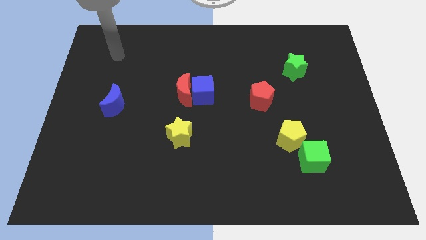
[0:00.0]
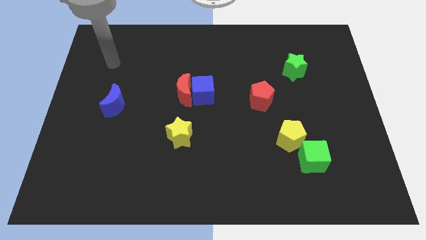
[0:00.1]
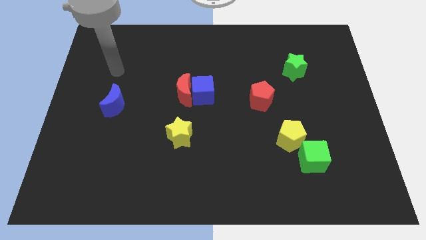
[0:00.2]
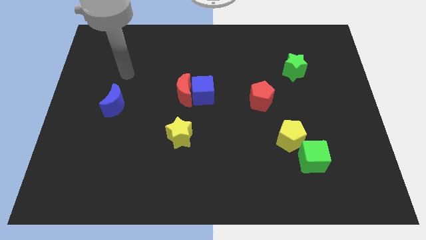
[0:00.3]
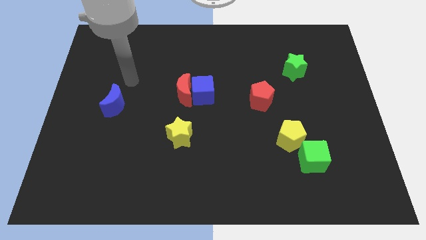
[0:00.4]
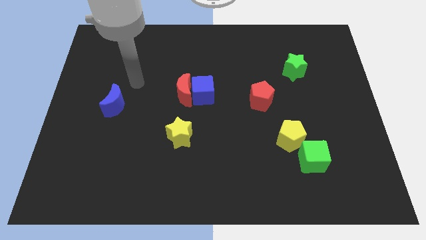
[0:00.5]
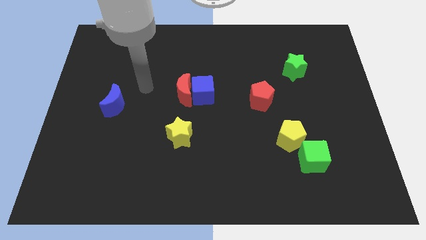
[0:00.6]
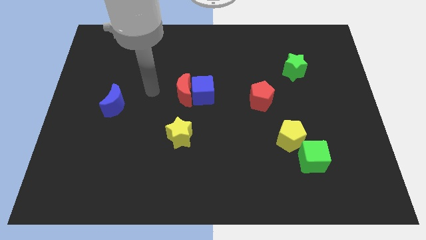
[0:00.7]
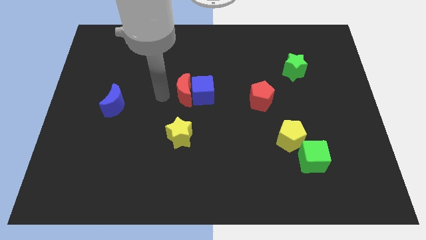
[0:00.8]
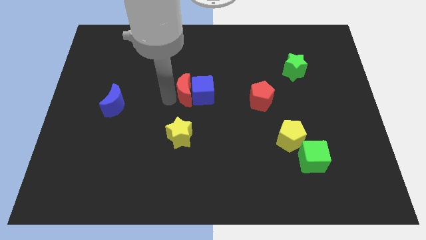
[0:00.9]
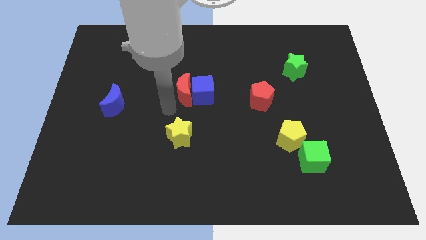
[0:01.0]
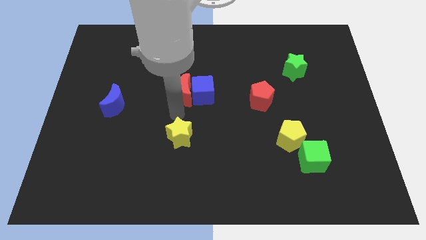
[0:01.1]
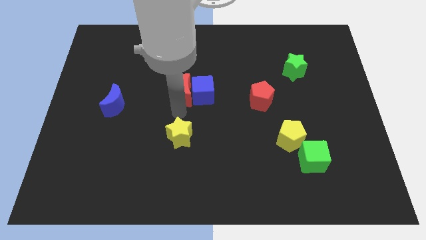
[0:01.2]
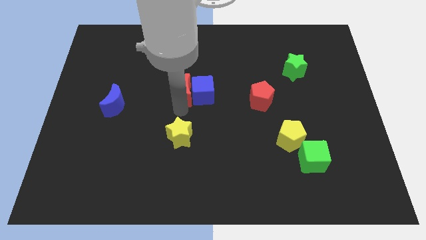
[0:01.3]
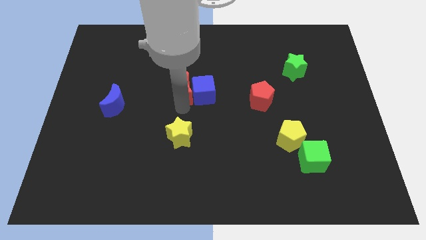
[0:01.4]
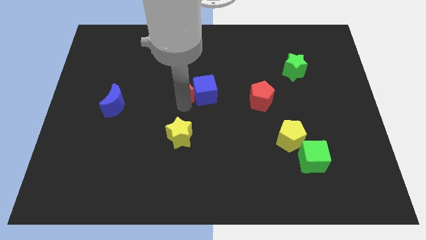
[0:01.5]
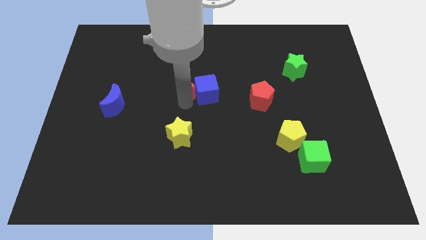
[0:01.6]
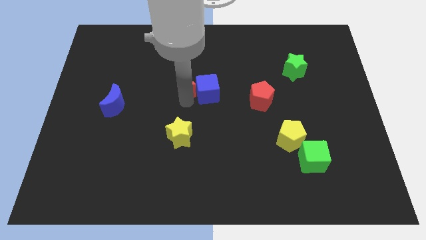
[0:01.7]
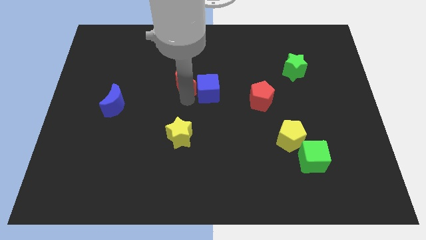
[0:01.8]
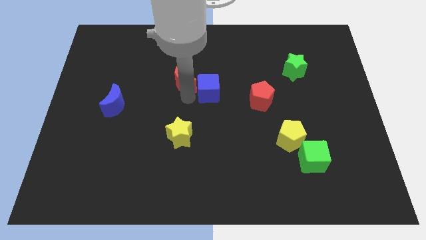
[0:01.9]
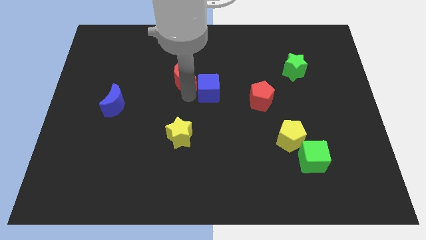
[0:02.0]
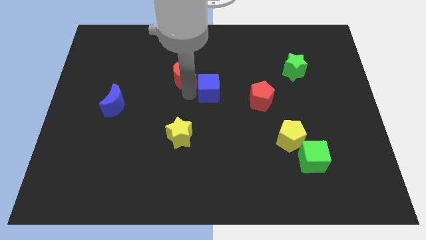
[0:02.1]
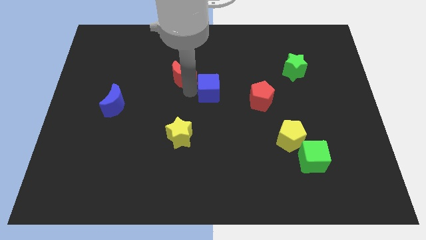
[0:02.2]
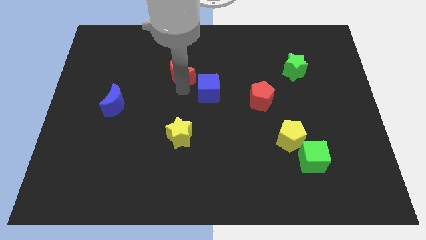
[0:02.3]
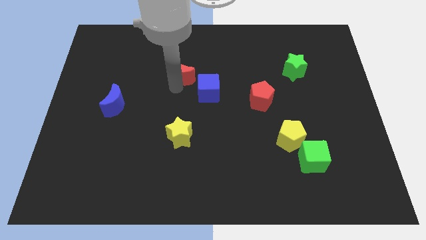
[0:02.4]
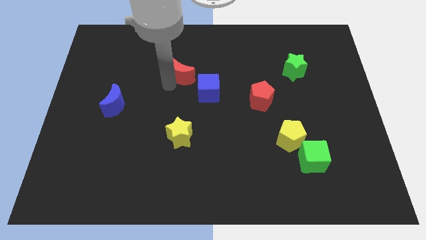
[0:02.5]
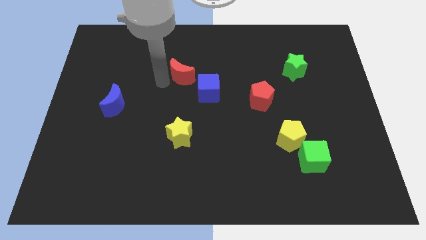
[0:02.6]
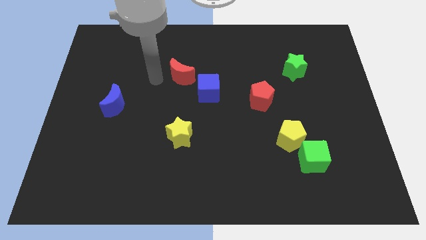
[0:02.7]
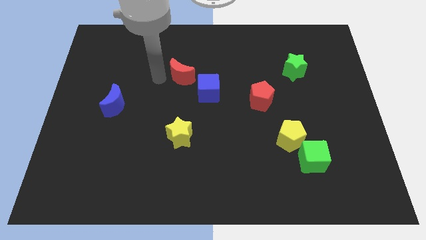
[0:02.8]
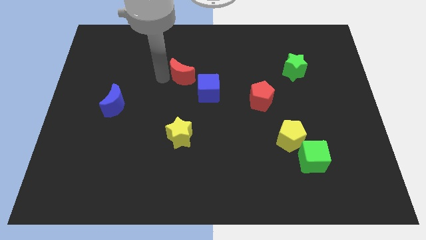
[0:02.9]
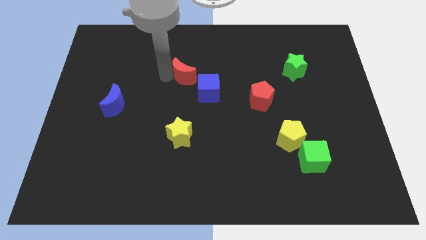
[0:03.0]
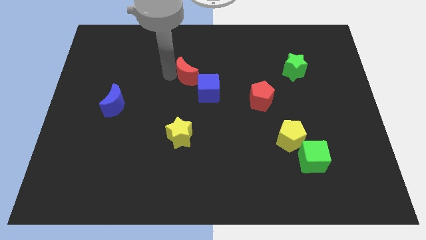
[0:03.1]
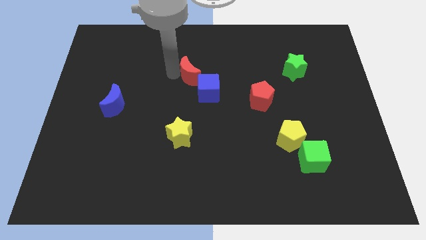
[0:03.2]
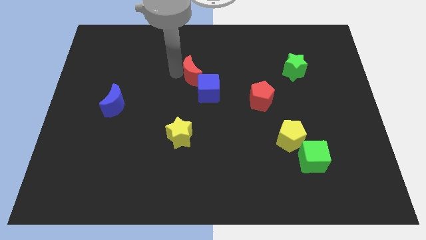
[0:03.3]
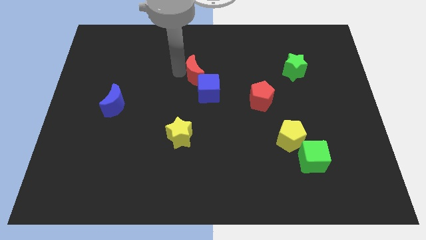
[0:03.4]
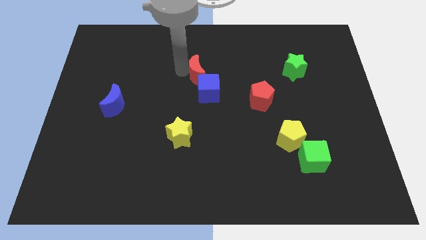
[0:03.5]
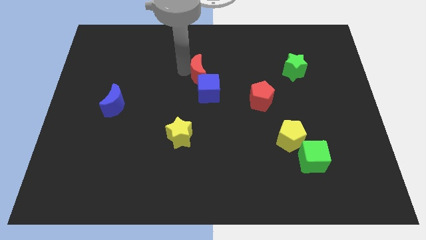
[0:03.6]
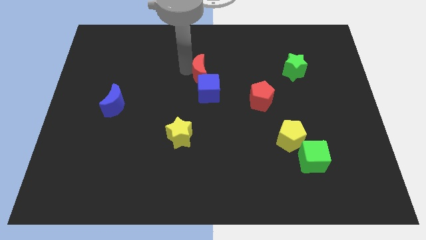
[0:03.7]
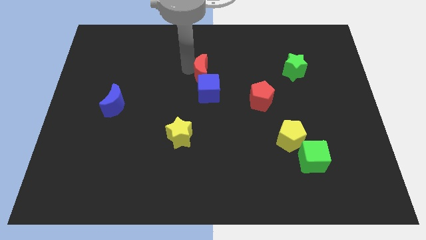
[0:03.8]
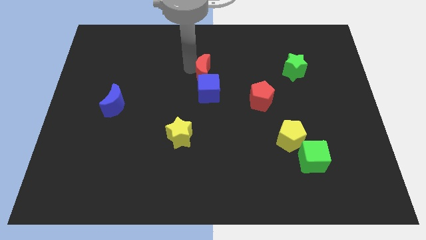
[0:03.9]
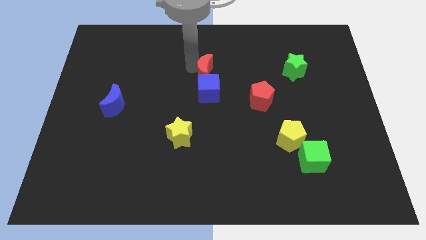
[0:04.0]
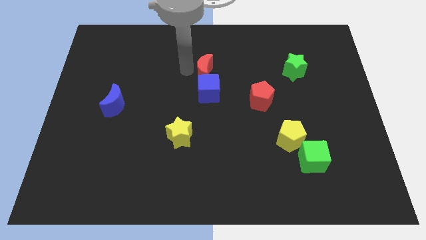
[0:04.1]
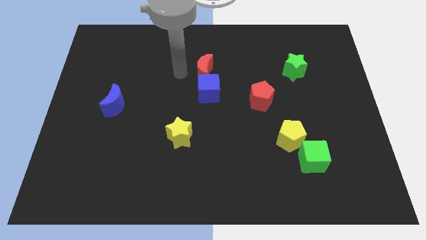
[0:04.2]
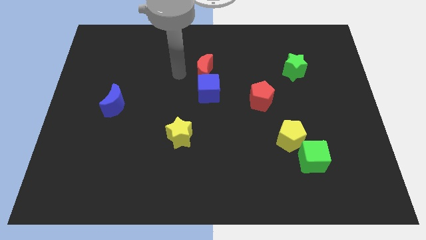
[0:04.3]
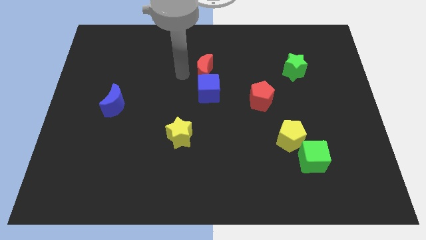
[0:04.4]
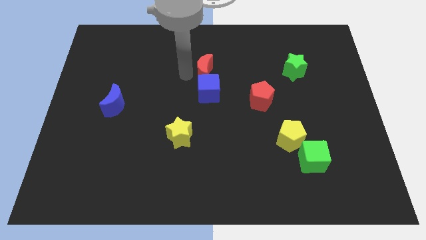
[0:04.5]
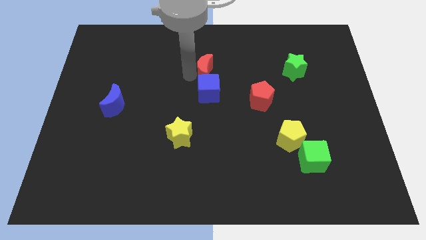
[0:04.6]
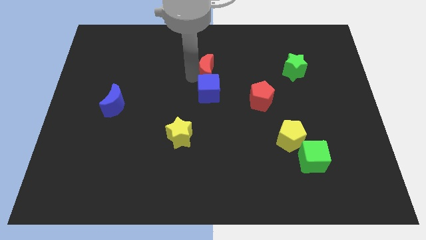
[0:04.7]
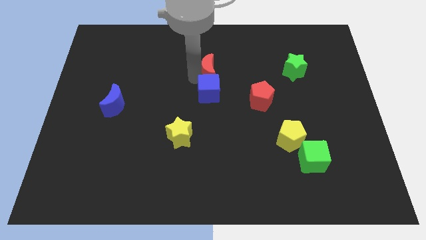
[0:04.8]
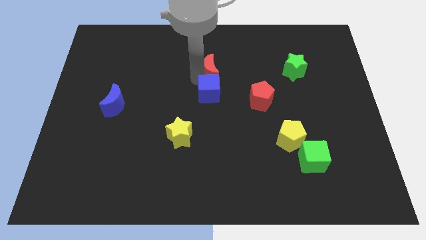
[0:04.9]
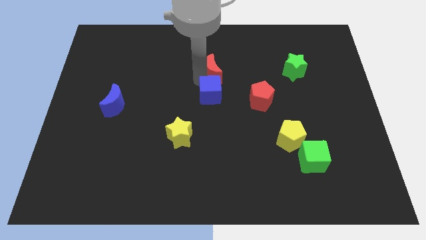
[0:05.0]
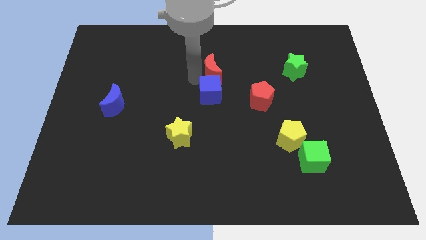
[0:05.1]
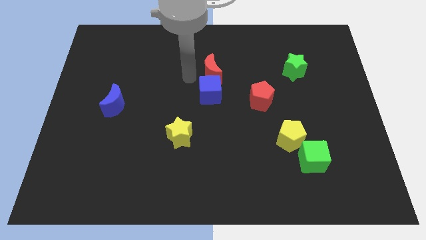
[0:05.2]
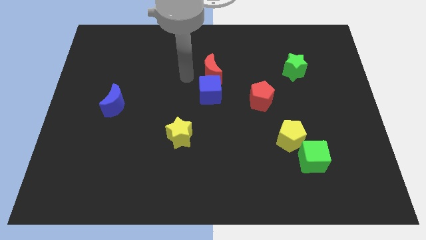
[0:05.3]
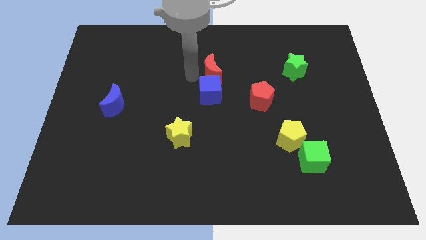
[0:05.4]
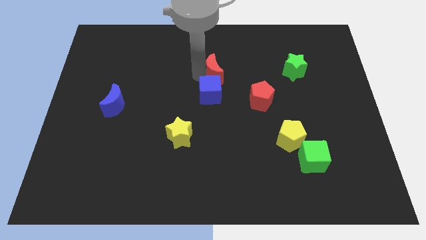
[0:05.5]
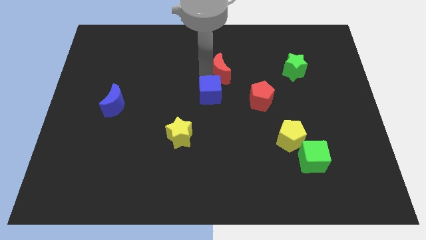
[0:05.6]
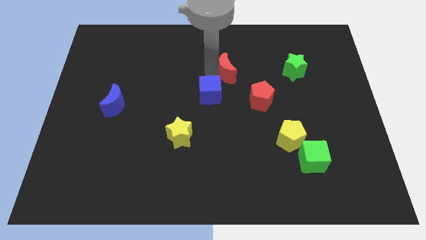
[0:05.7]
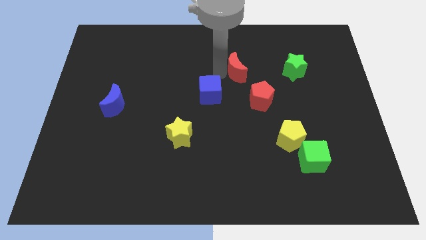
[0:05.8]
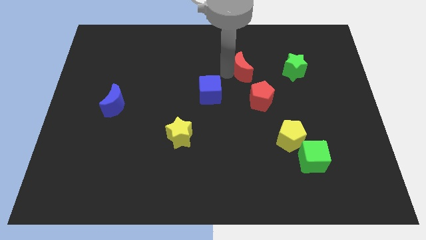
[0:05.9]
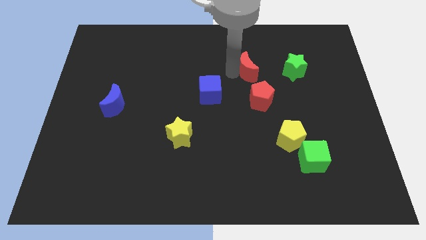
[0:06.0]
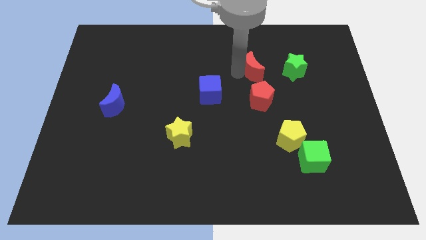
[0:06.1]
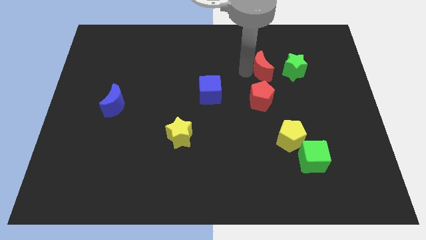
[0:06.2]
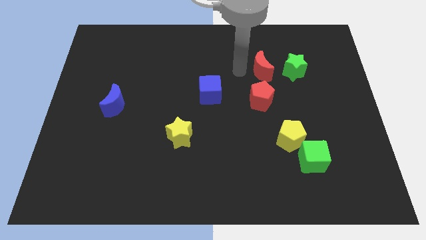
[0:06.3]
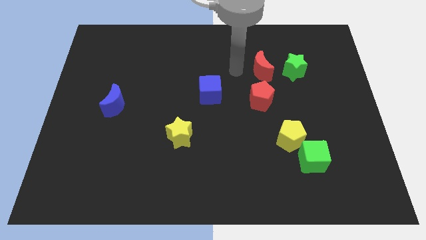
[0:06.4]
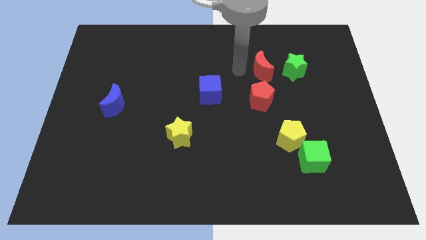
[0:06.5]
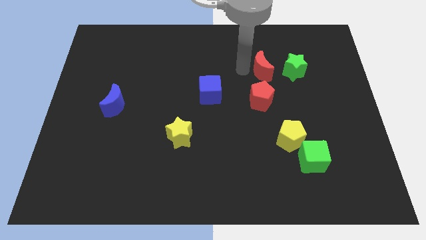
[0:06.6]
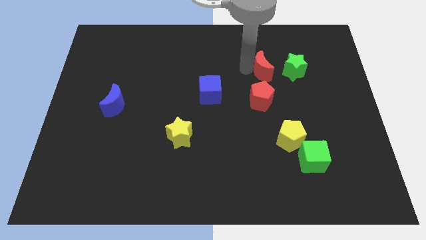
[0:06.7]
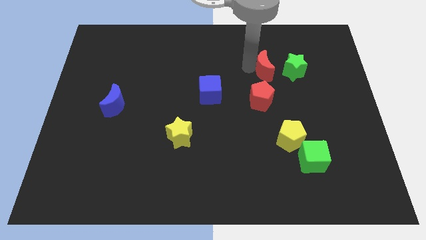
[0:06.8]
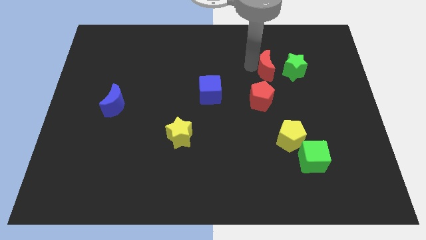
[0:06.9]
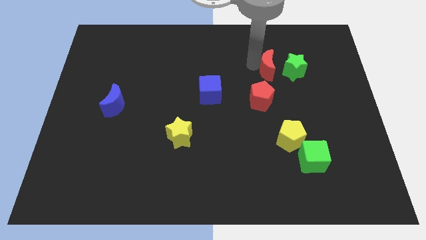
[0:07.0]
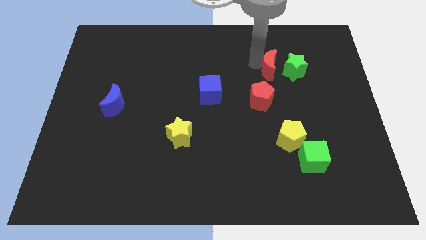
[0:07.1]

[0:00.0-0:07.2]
move the red moon close to the green star

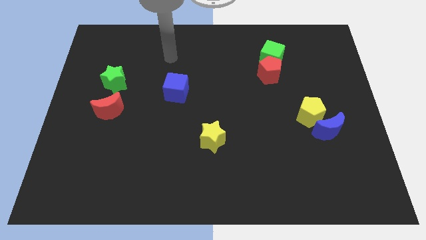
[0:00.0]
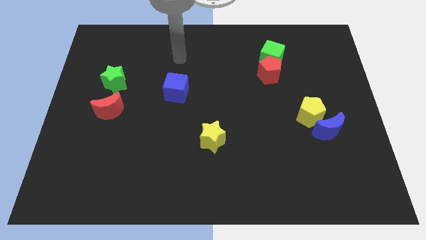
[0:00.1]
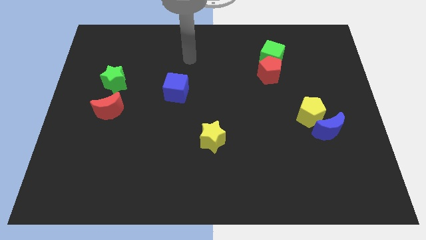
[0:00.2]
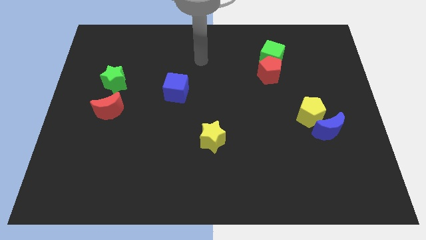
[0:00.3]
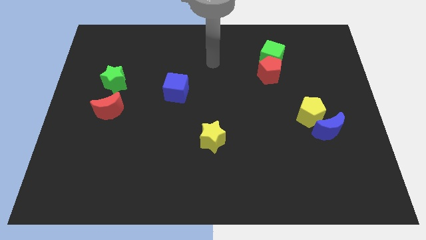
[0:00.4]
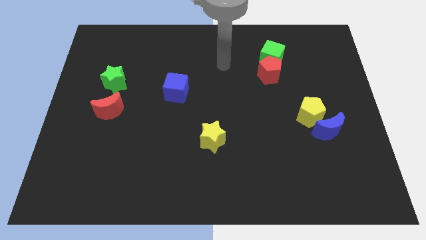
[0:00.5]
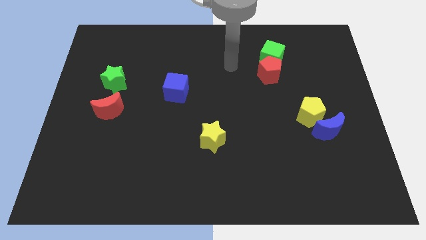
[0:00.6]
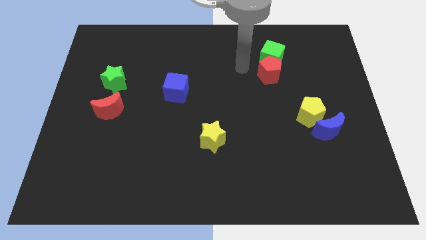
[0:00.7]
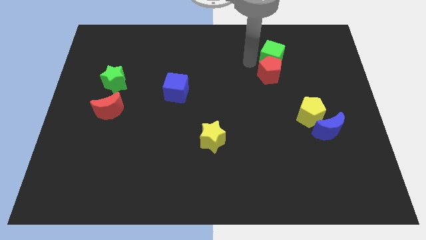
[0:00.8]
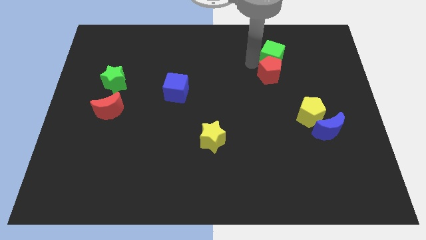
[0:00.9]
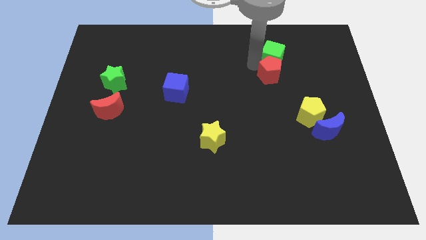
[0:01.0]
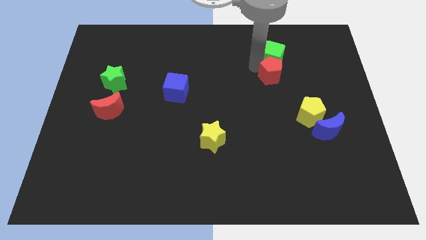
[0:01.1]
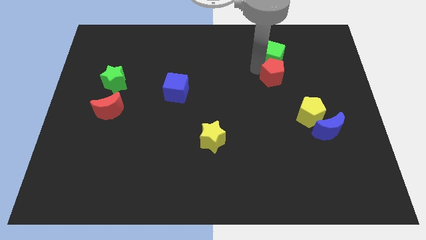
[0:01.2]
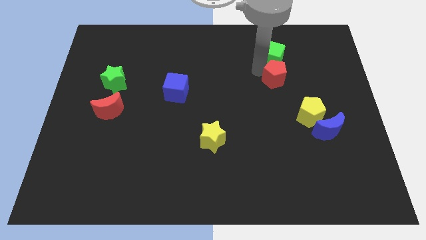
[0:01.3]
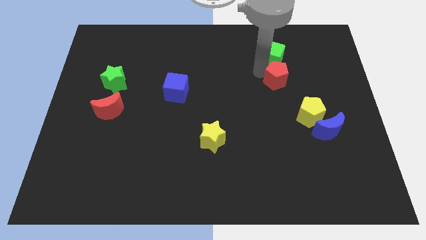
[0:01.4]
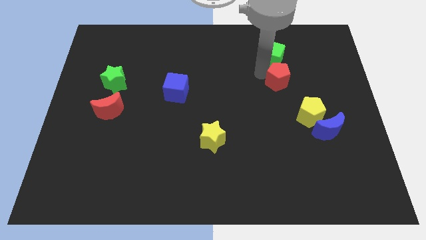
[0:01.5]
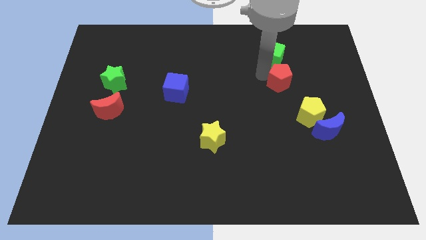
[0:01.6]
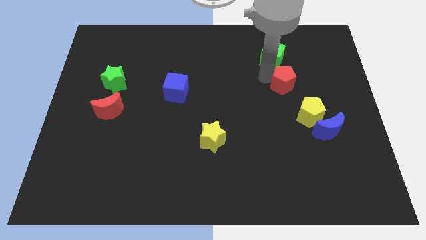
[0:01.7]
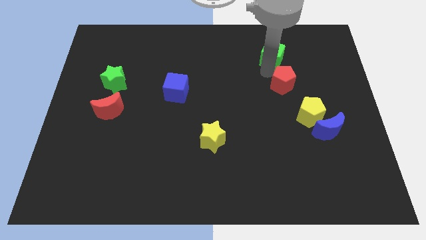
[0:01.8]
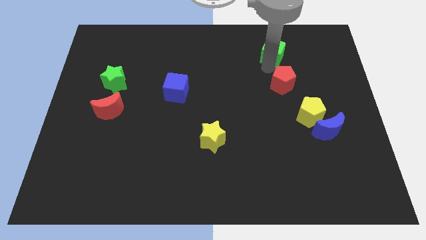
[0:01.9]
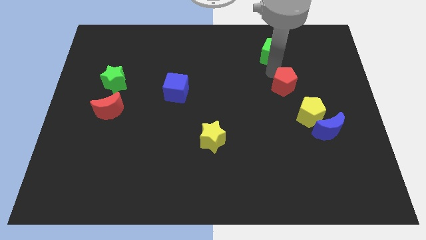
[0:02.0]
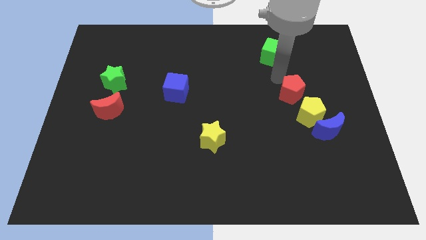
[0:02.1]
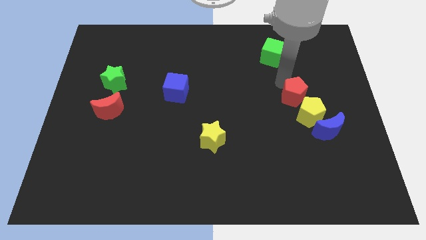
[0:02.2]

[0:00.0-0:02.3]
push the red pentagon next to the yellow pentagon
